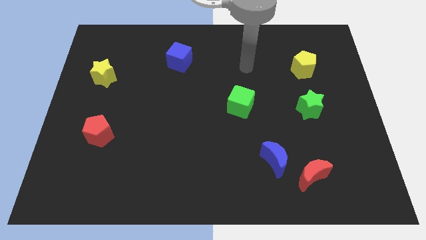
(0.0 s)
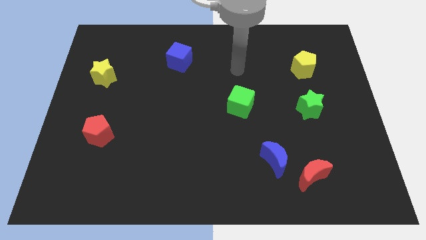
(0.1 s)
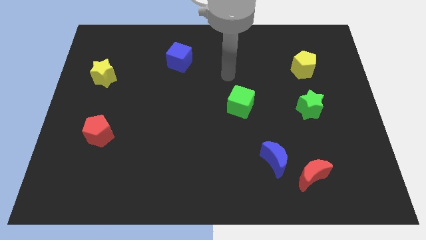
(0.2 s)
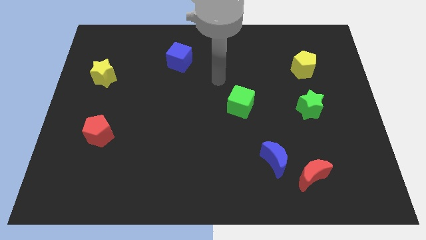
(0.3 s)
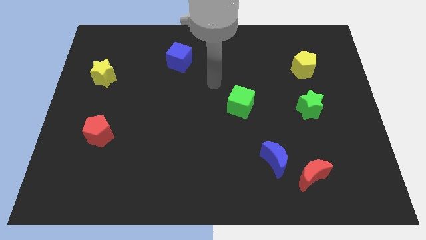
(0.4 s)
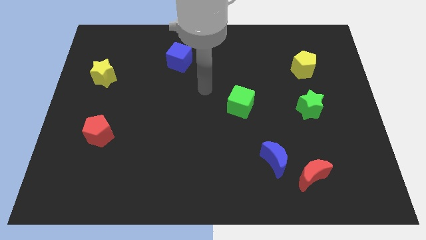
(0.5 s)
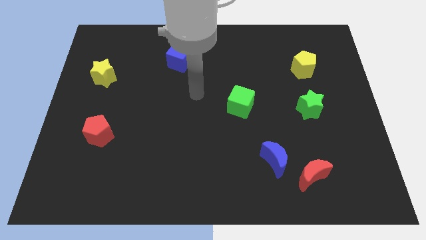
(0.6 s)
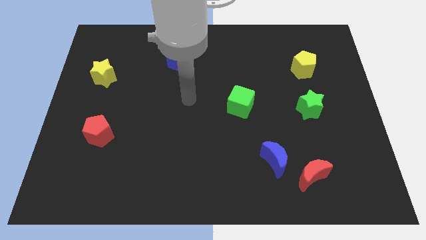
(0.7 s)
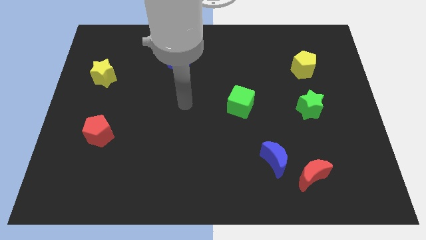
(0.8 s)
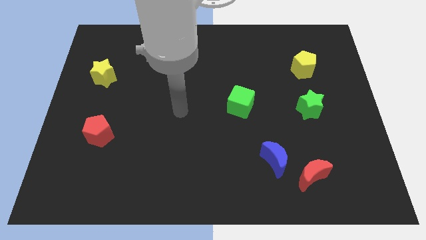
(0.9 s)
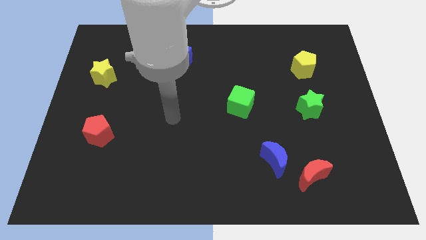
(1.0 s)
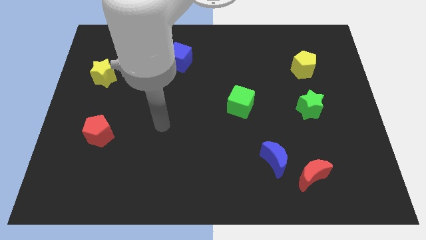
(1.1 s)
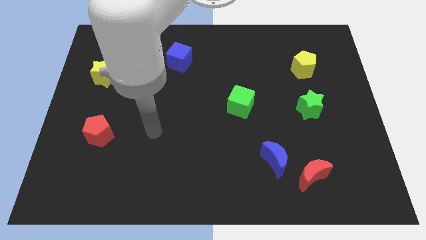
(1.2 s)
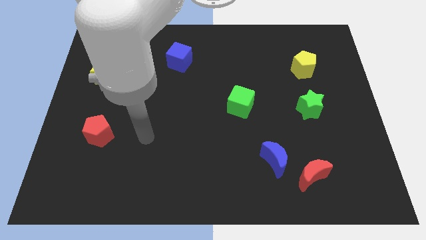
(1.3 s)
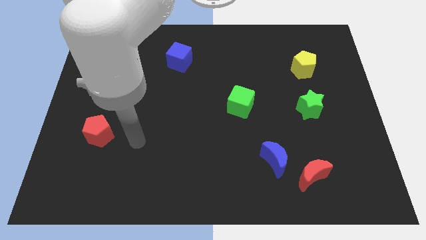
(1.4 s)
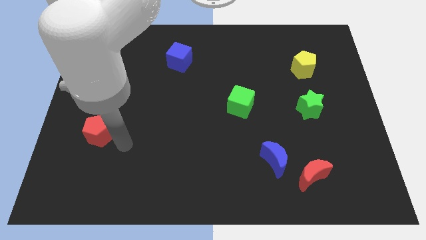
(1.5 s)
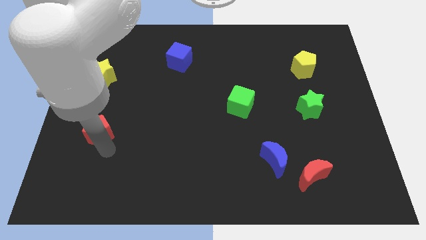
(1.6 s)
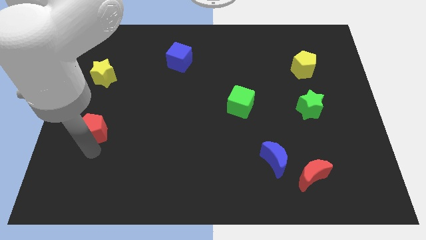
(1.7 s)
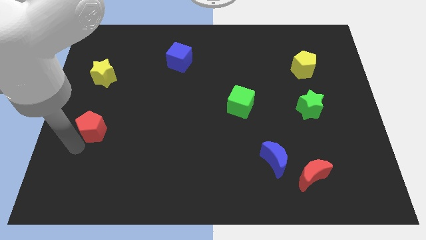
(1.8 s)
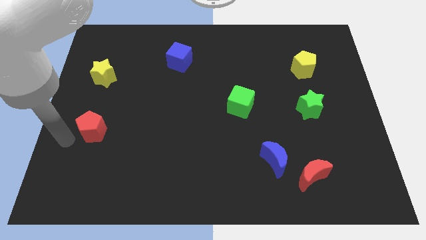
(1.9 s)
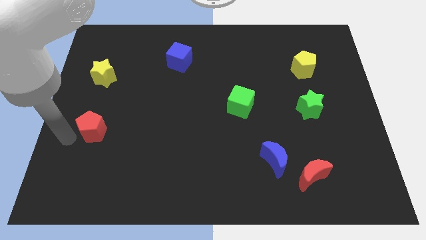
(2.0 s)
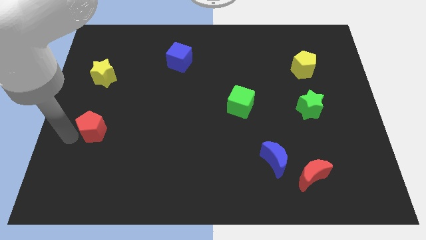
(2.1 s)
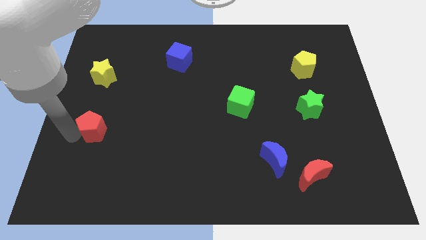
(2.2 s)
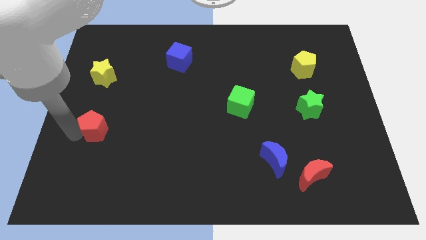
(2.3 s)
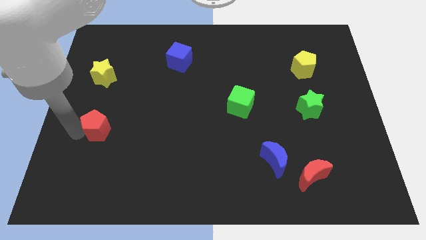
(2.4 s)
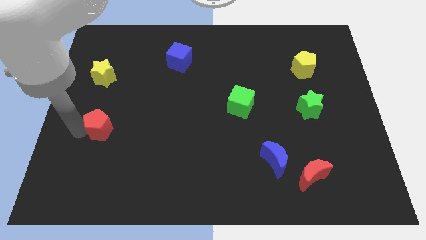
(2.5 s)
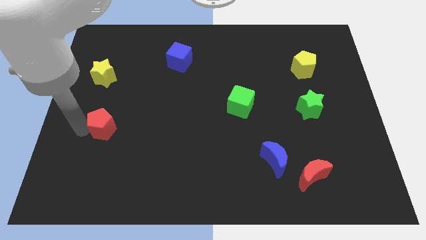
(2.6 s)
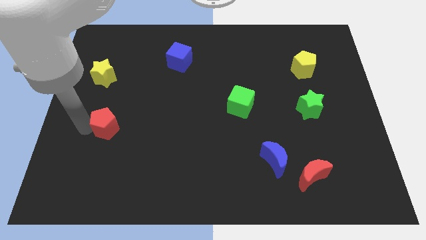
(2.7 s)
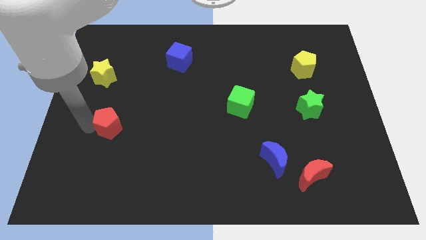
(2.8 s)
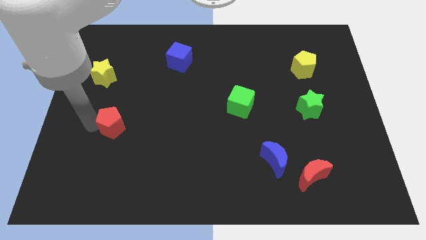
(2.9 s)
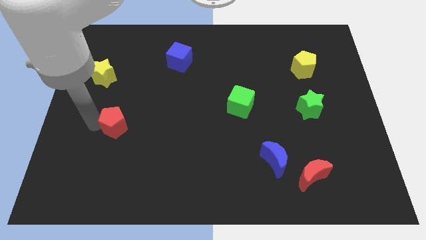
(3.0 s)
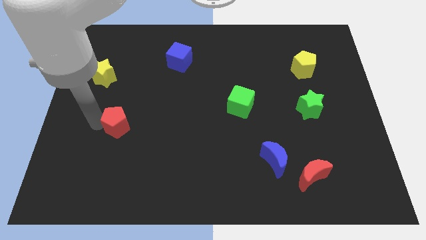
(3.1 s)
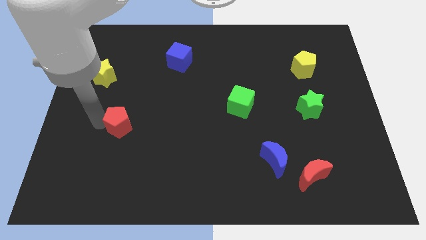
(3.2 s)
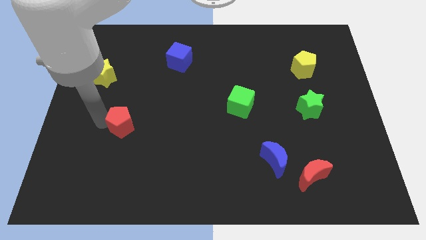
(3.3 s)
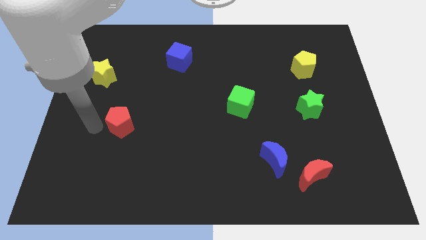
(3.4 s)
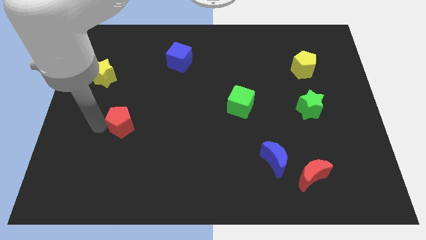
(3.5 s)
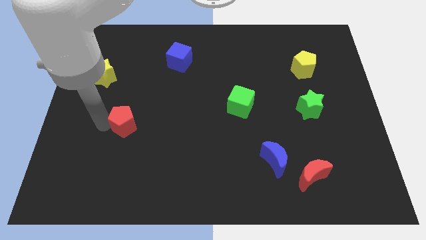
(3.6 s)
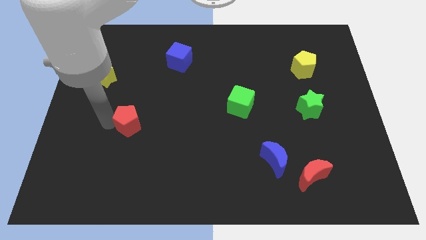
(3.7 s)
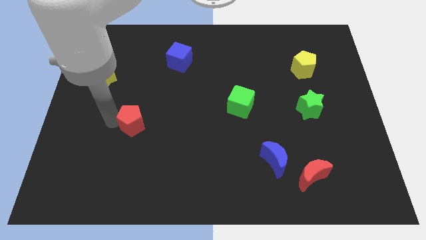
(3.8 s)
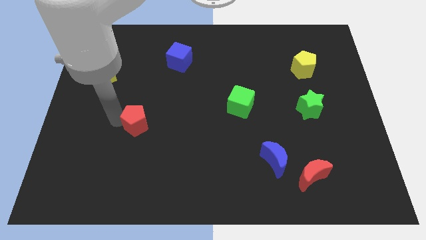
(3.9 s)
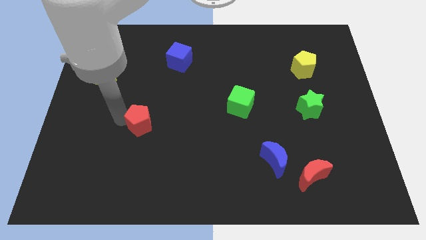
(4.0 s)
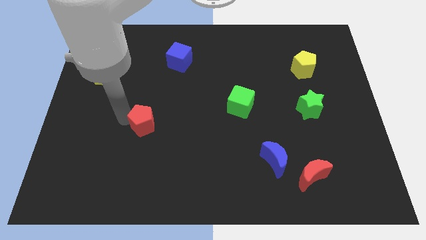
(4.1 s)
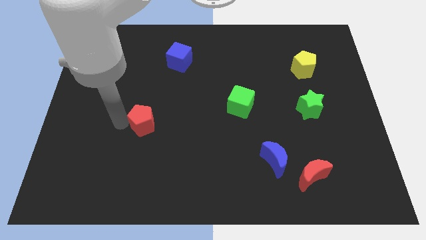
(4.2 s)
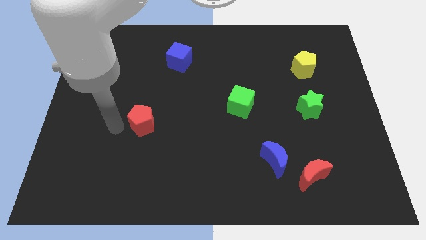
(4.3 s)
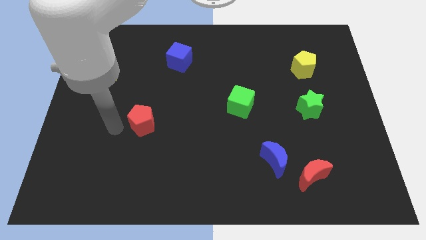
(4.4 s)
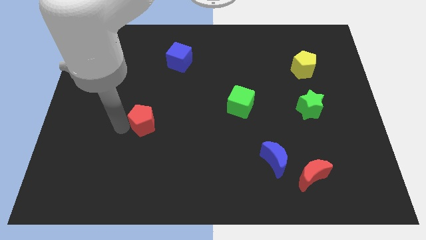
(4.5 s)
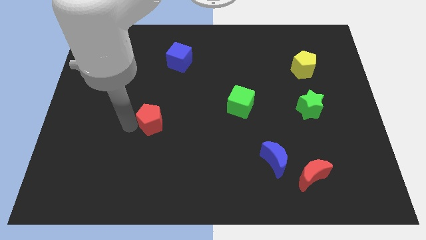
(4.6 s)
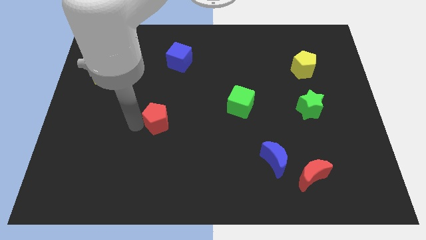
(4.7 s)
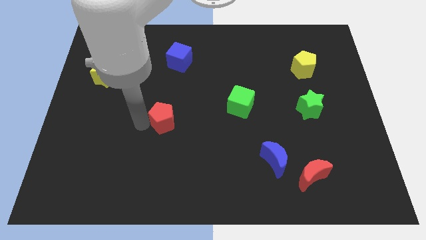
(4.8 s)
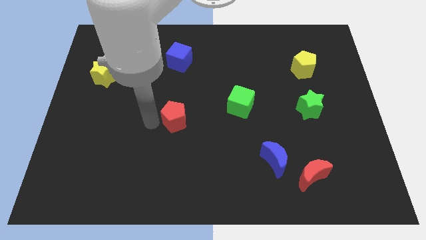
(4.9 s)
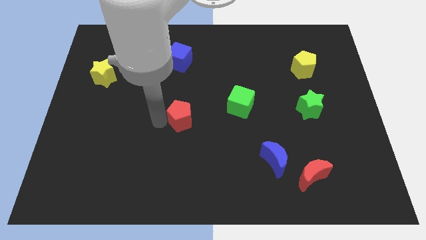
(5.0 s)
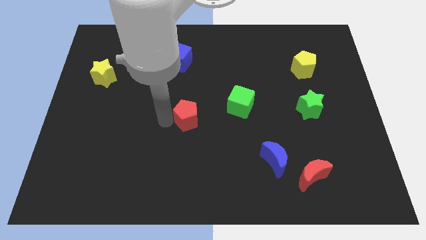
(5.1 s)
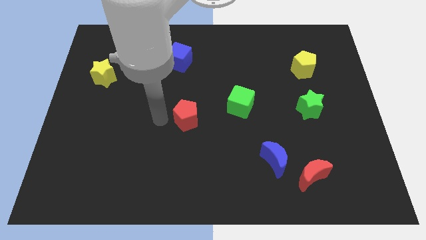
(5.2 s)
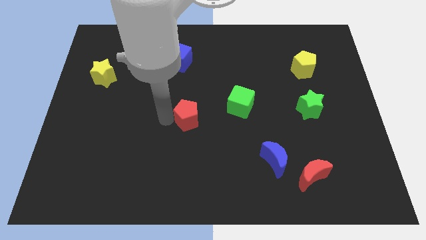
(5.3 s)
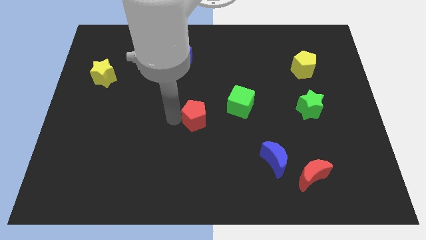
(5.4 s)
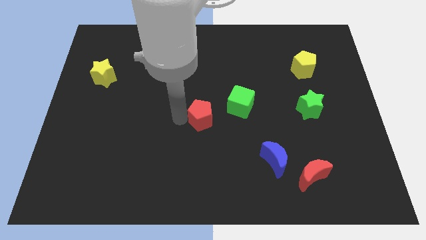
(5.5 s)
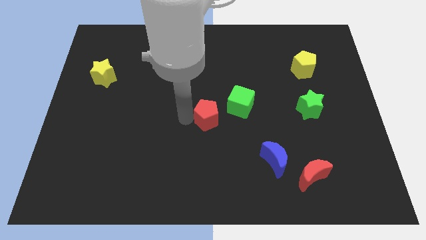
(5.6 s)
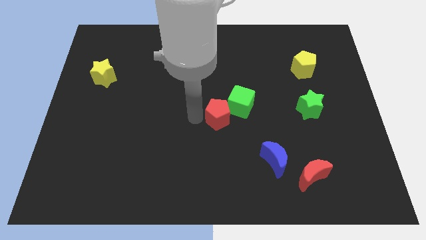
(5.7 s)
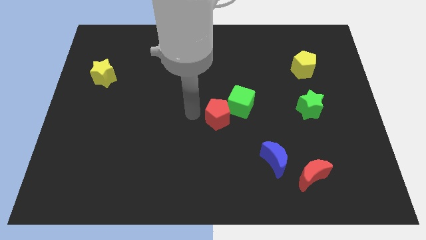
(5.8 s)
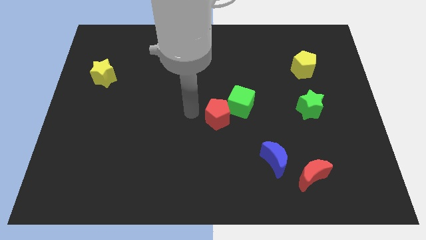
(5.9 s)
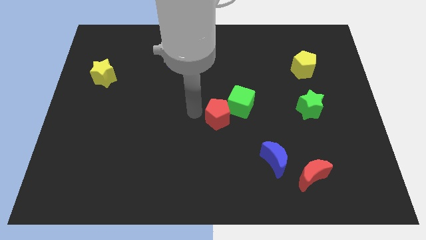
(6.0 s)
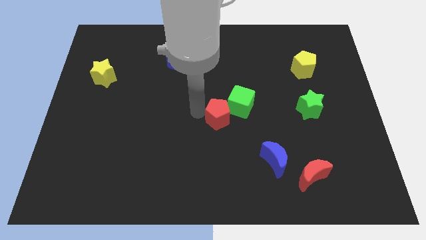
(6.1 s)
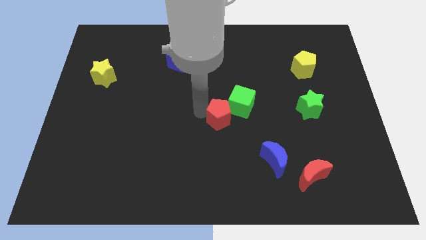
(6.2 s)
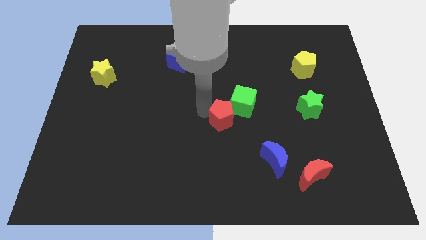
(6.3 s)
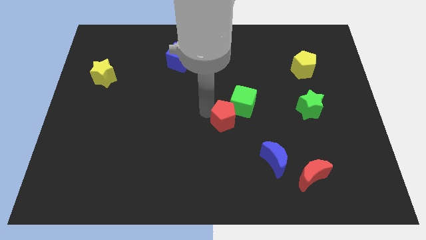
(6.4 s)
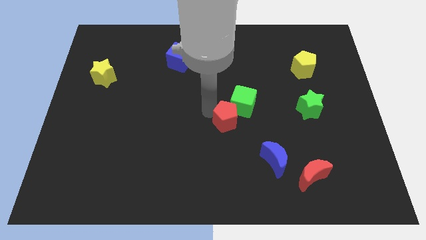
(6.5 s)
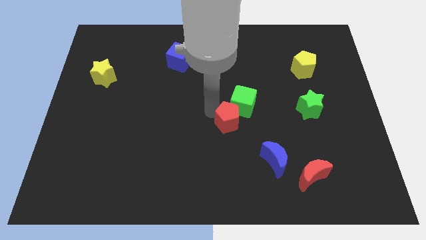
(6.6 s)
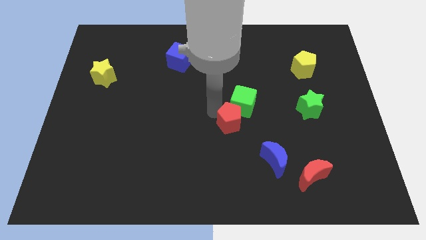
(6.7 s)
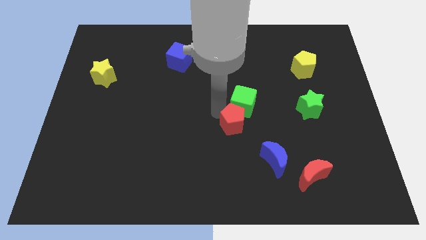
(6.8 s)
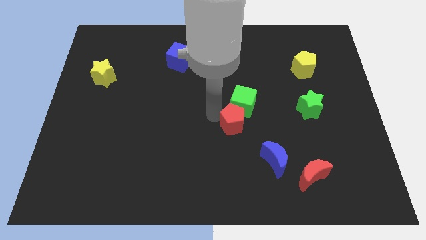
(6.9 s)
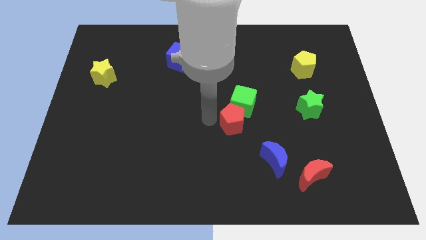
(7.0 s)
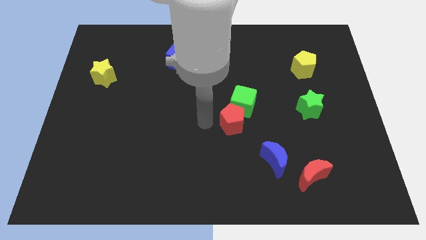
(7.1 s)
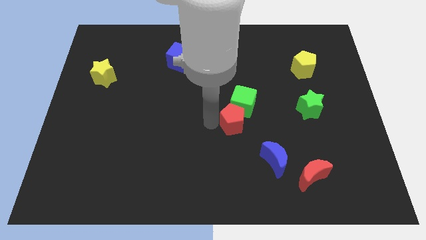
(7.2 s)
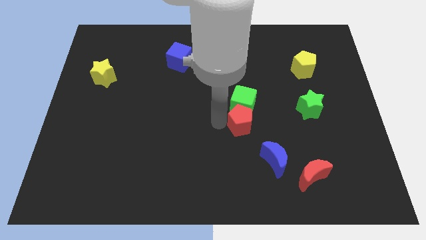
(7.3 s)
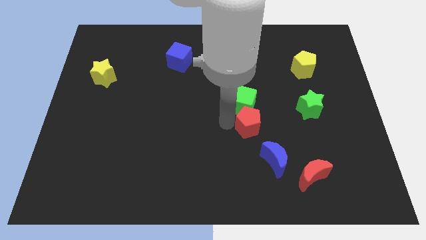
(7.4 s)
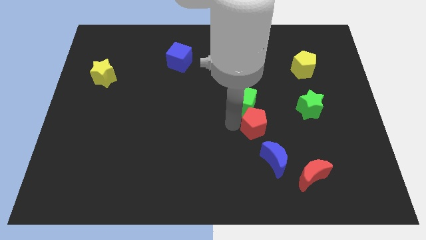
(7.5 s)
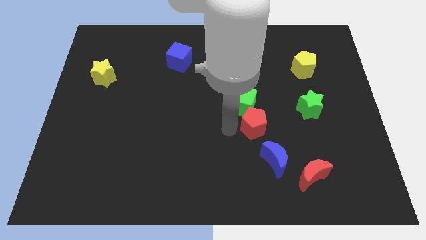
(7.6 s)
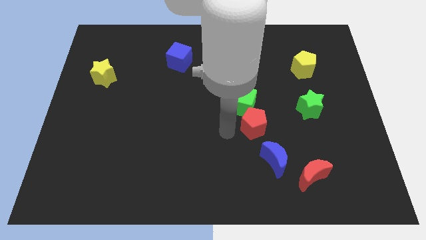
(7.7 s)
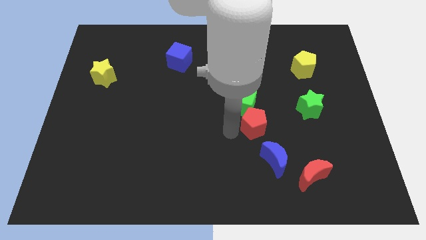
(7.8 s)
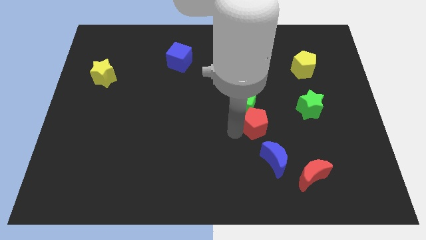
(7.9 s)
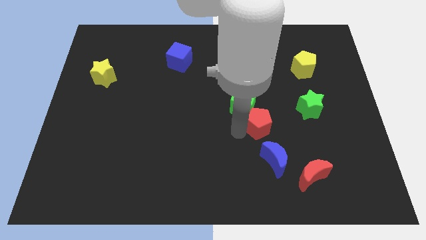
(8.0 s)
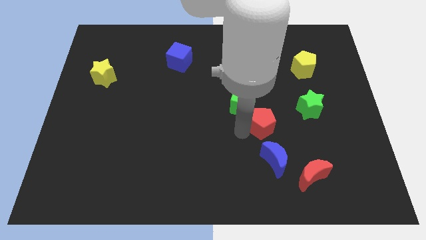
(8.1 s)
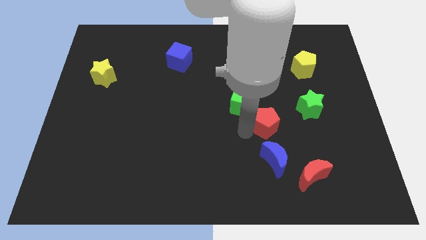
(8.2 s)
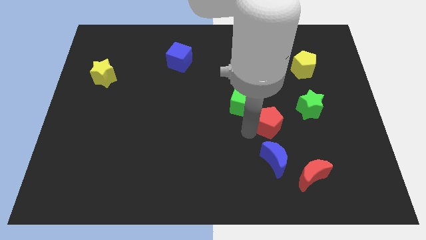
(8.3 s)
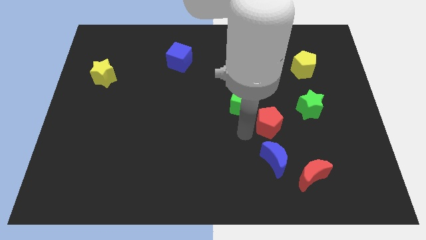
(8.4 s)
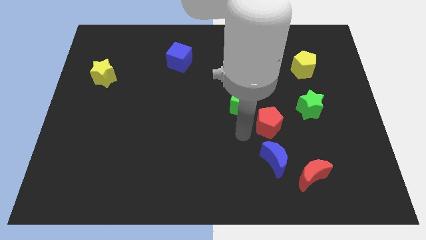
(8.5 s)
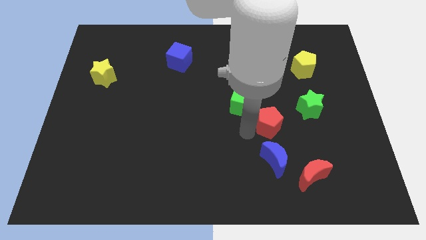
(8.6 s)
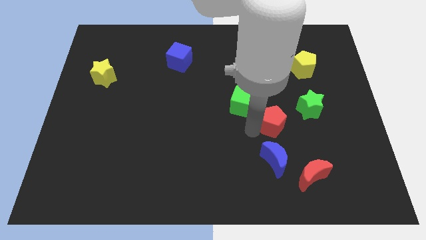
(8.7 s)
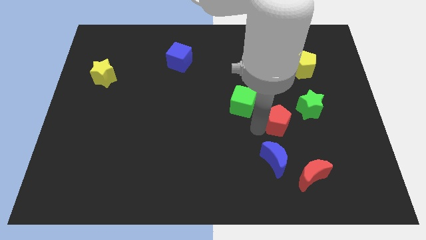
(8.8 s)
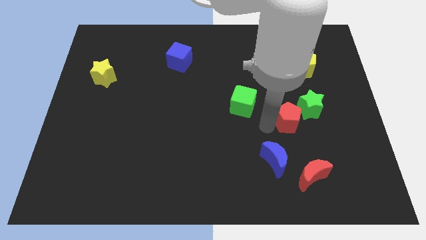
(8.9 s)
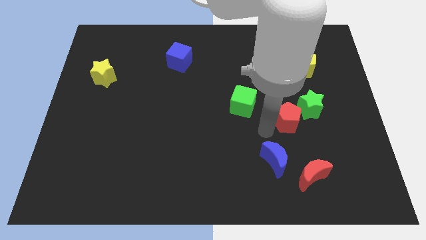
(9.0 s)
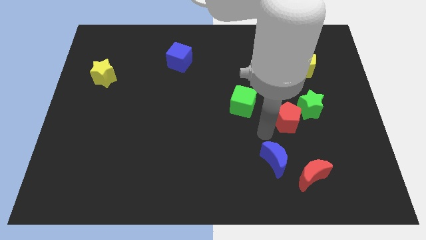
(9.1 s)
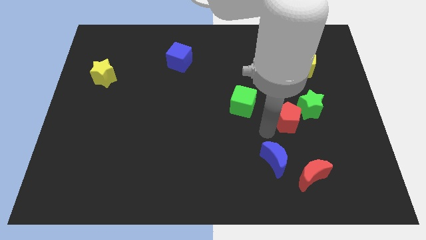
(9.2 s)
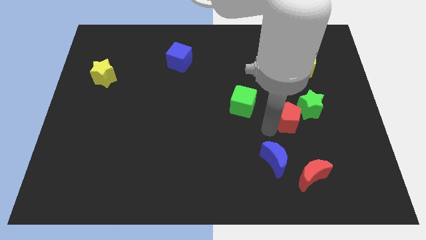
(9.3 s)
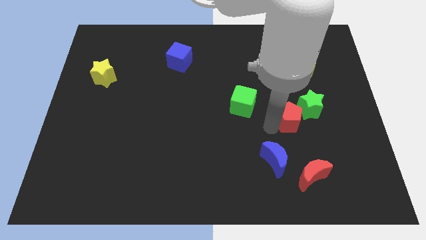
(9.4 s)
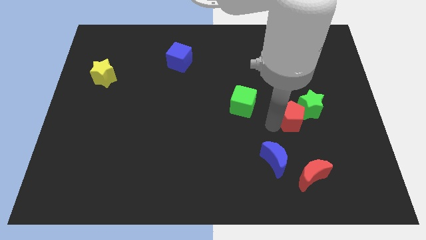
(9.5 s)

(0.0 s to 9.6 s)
move the red pentagon towards the green star
